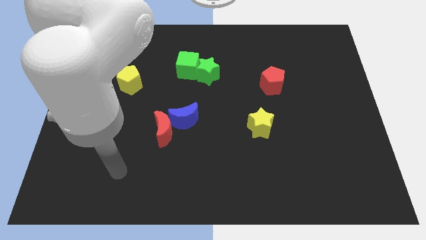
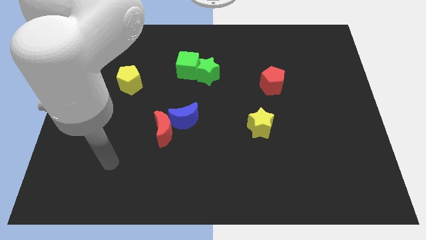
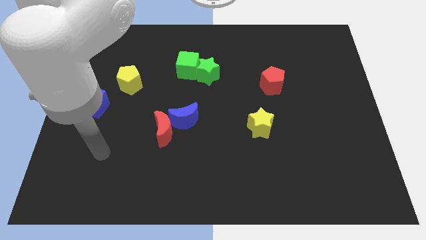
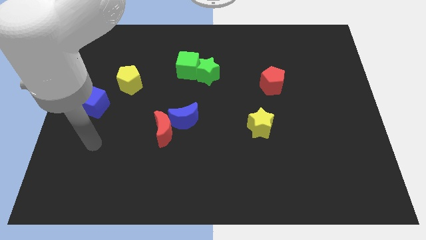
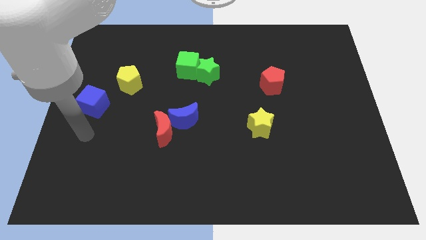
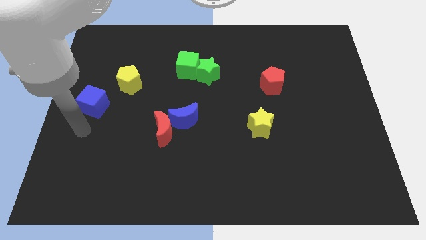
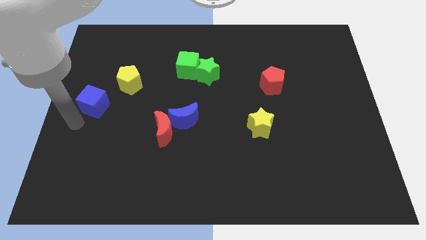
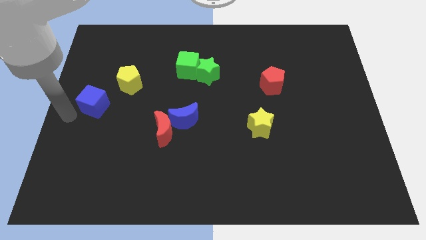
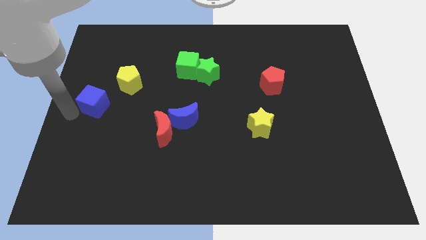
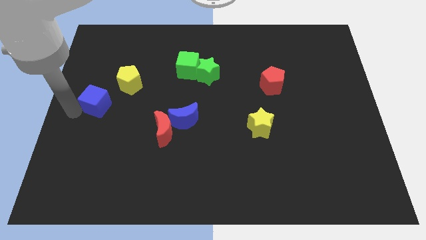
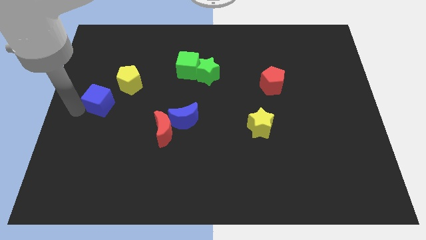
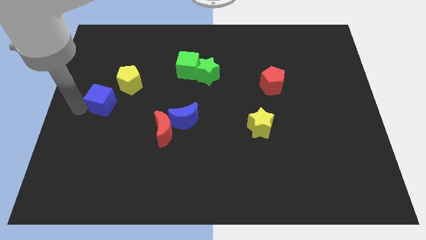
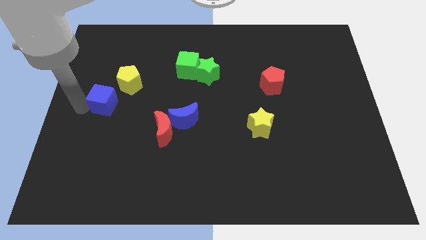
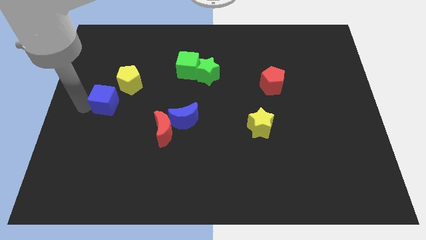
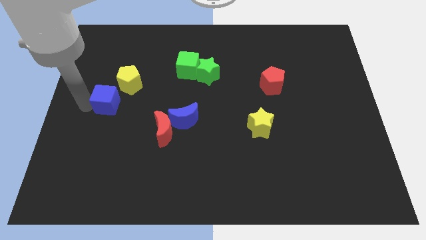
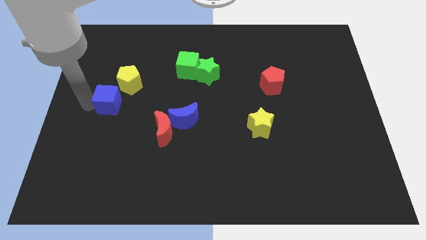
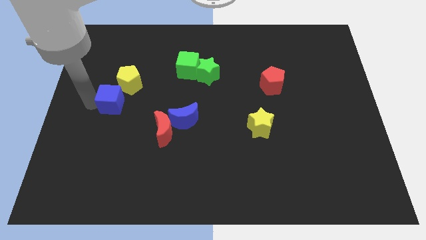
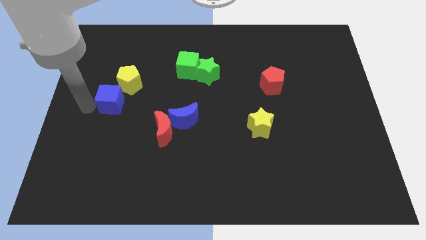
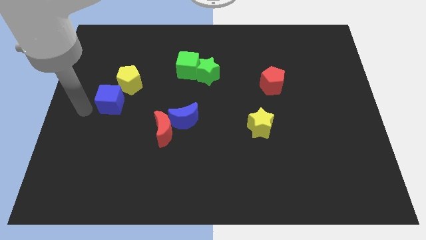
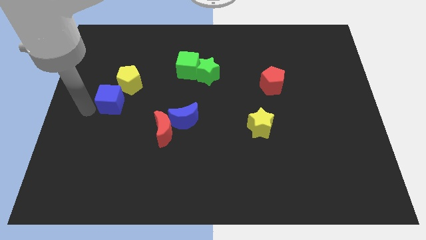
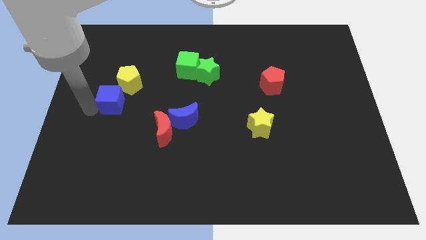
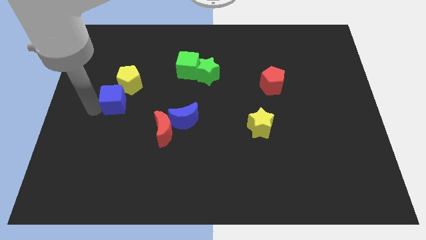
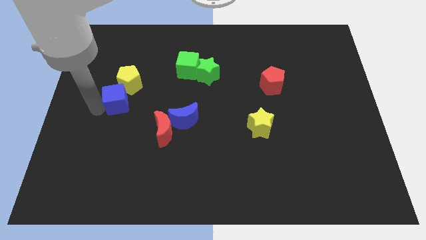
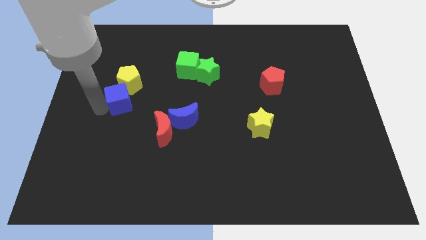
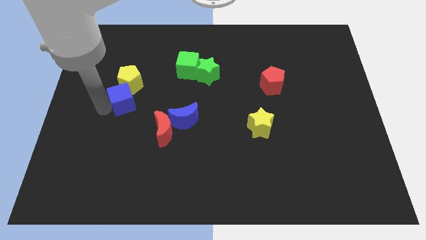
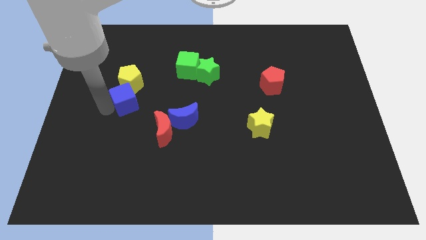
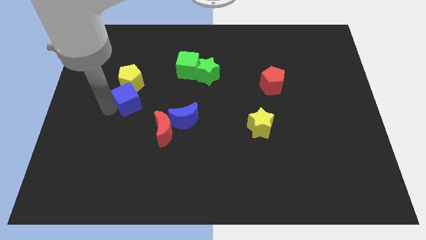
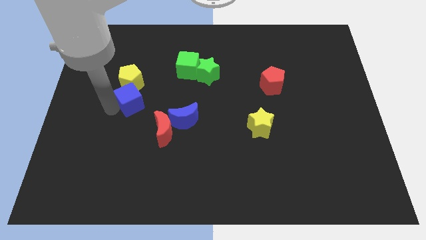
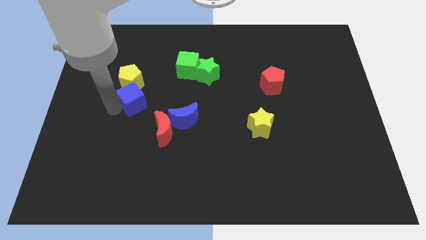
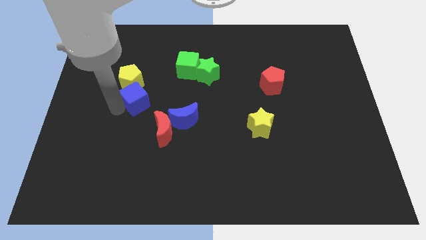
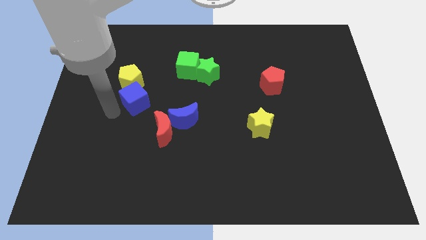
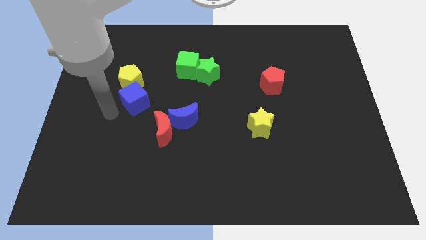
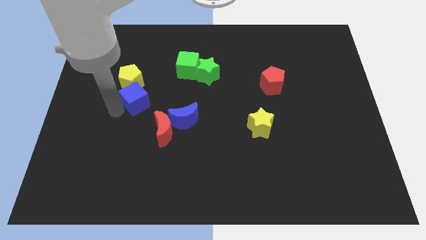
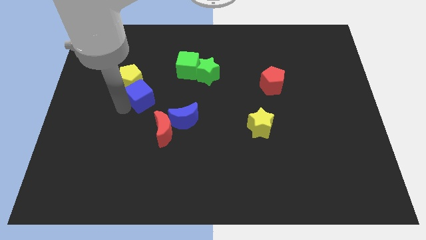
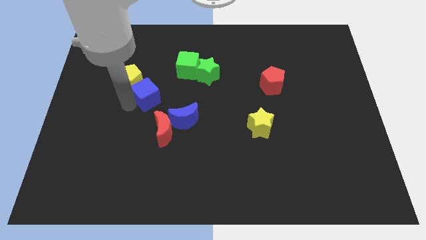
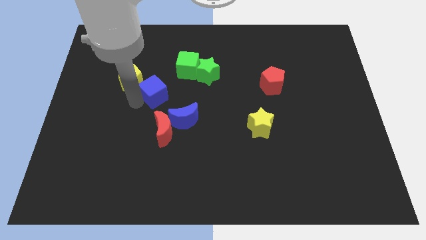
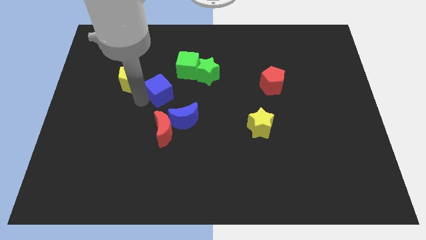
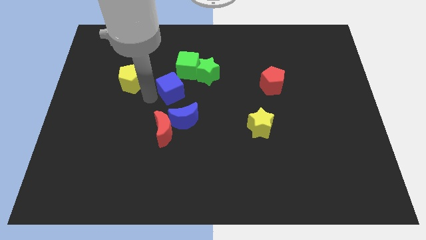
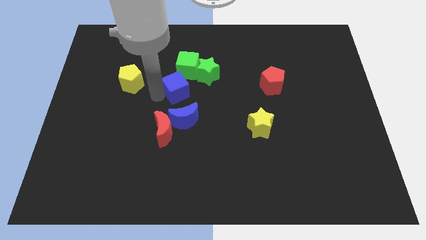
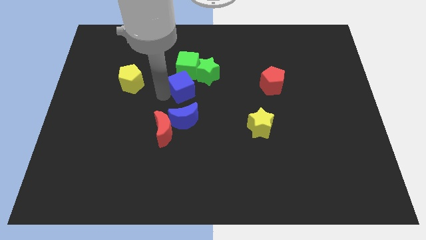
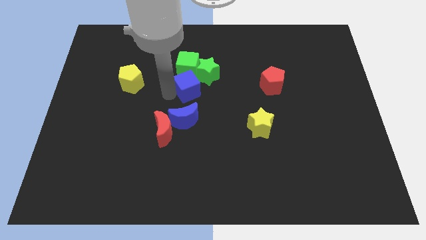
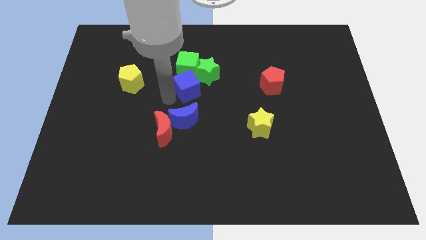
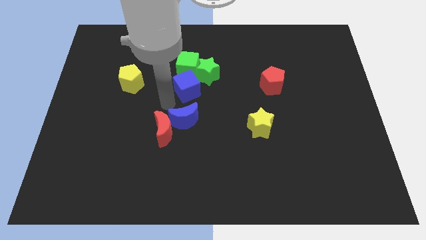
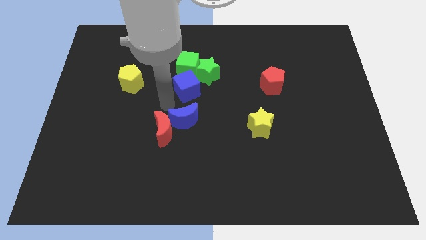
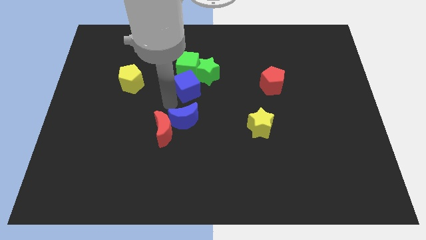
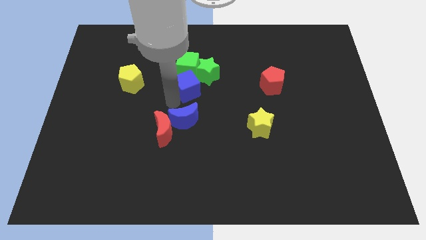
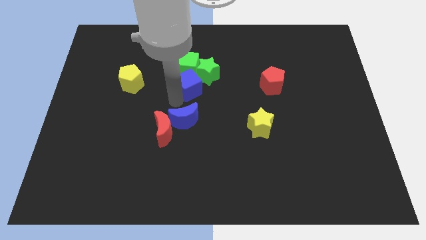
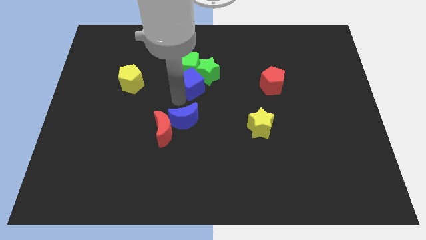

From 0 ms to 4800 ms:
slide the blue cube close to the green star

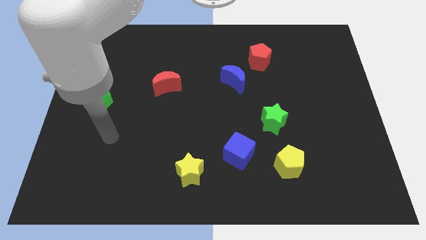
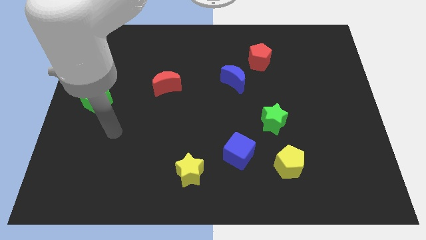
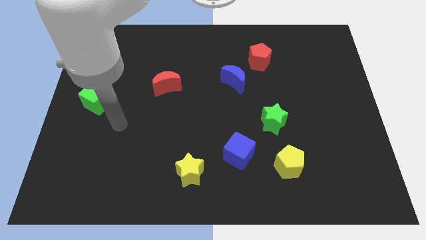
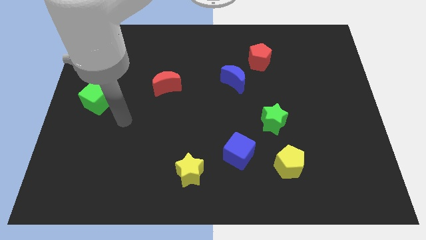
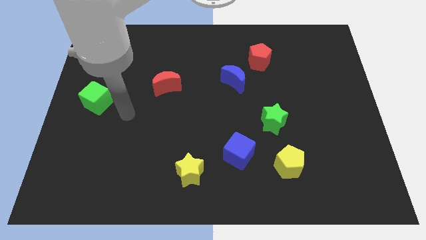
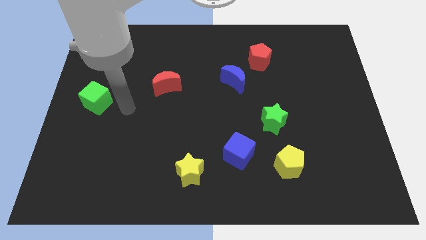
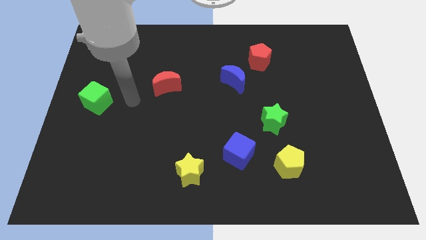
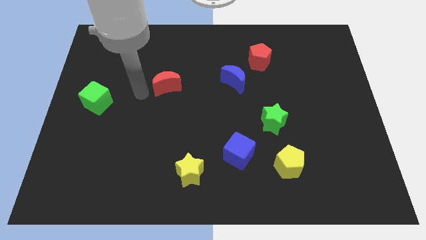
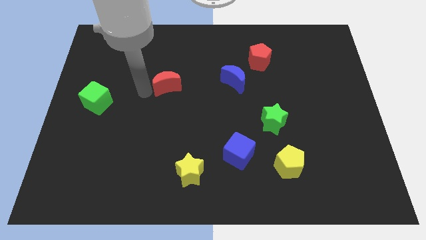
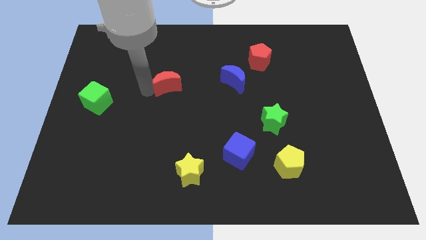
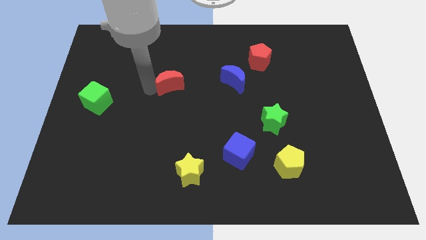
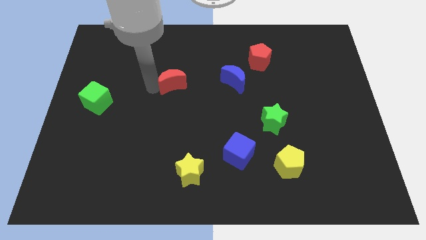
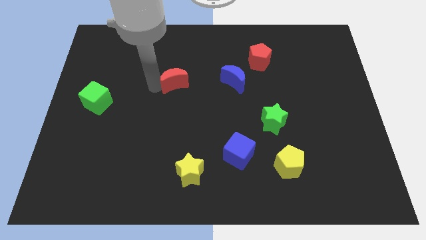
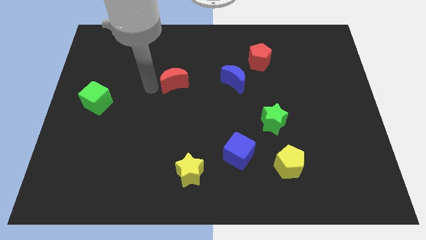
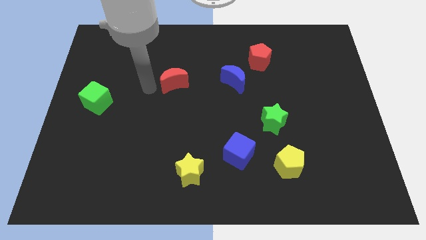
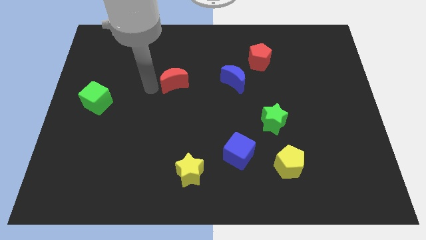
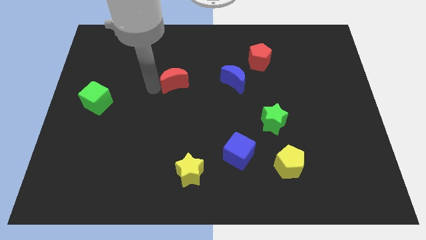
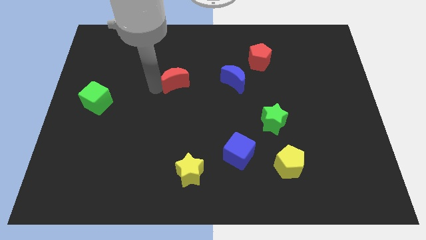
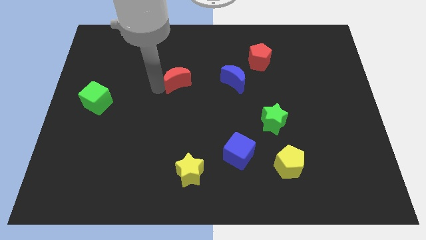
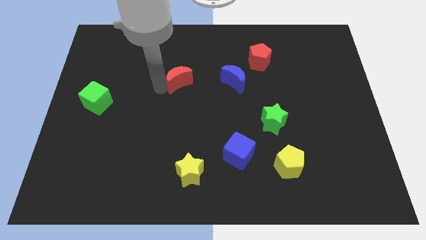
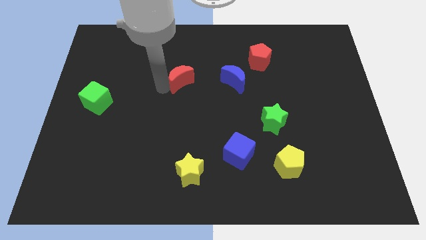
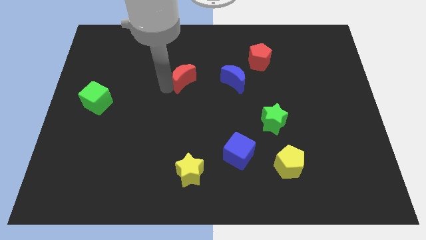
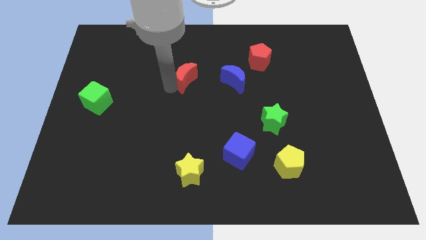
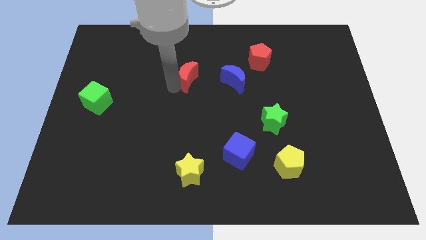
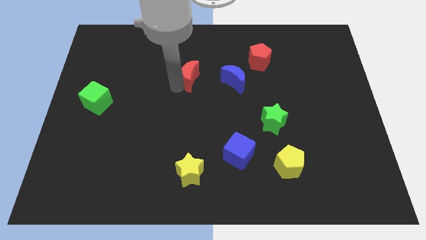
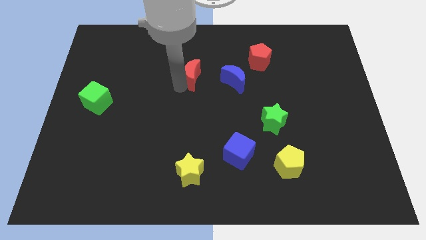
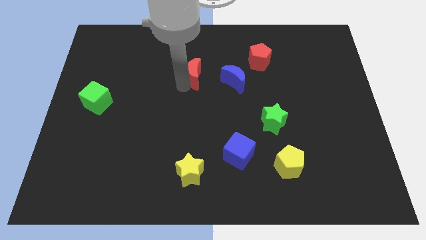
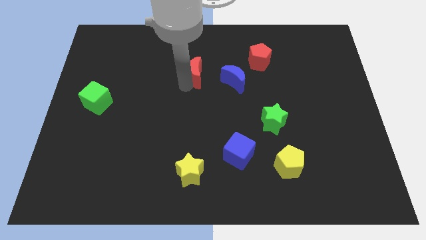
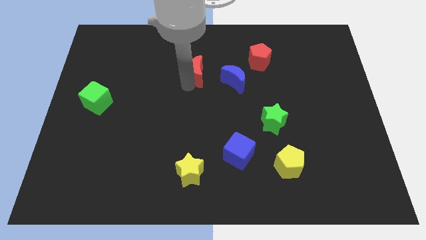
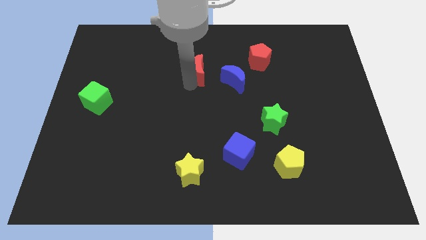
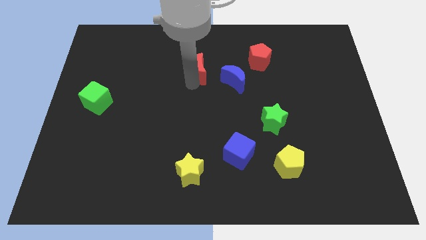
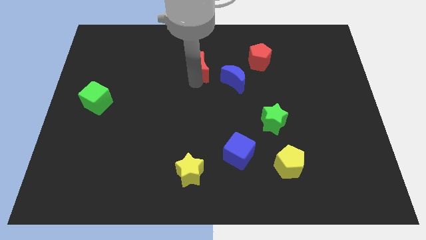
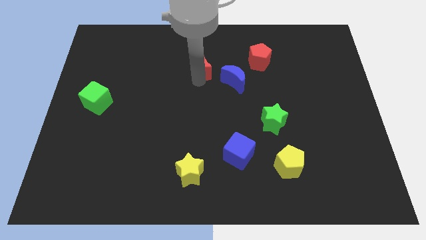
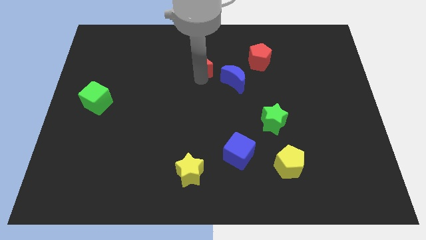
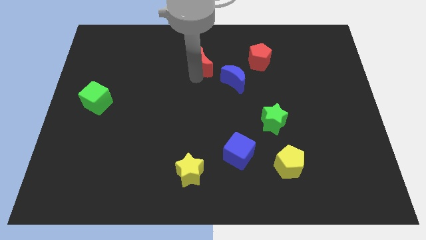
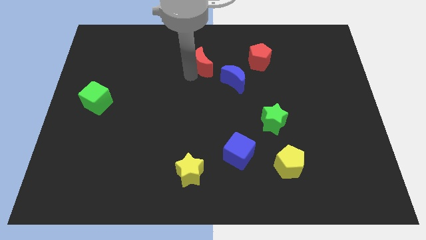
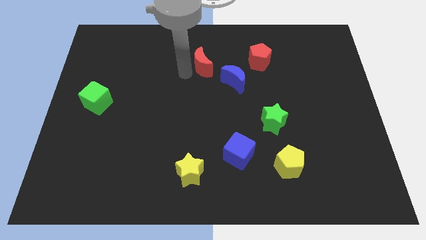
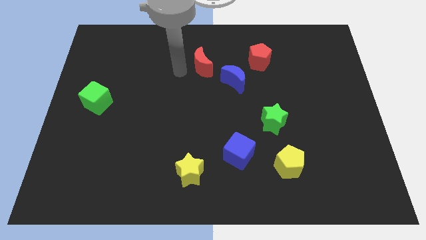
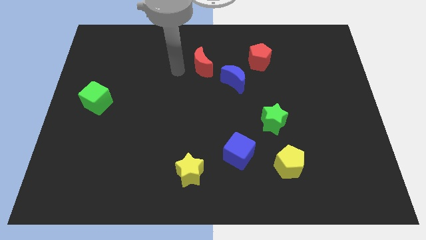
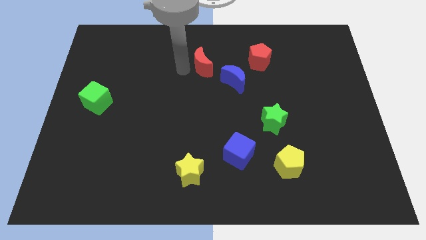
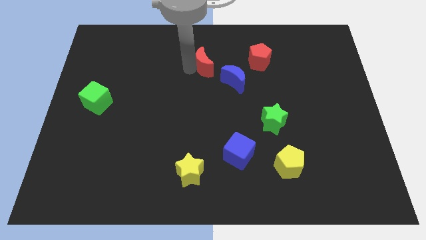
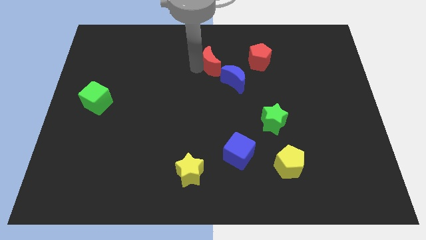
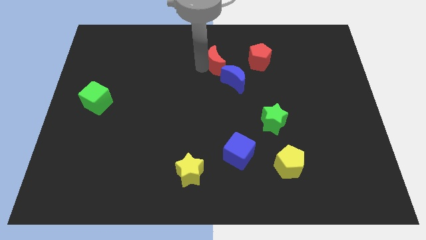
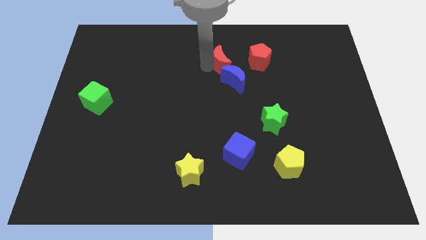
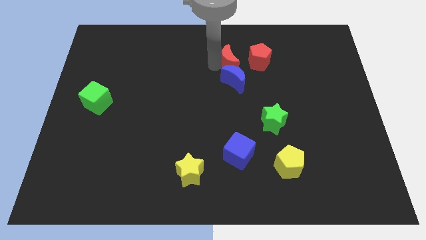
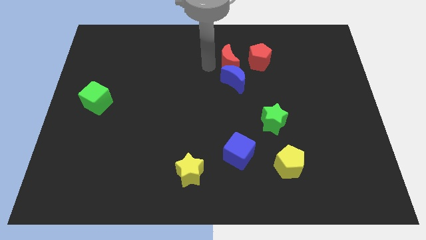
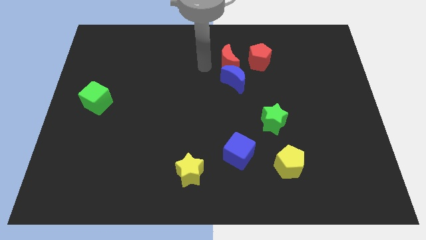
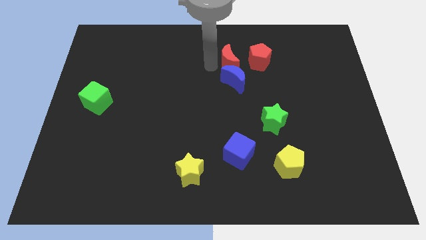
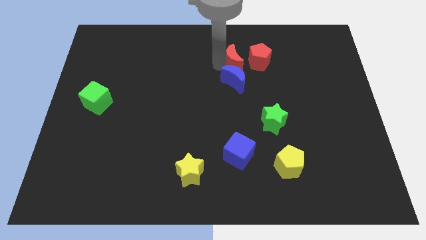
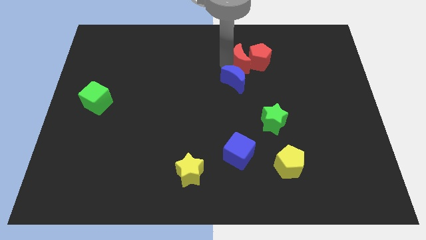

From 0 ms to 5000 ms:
push the red moon close to the red pentagon
